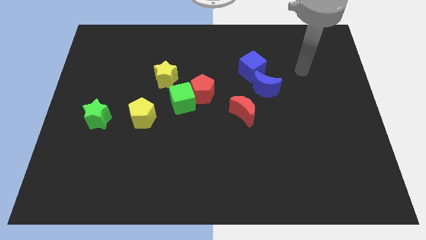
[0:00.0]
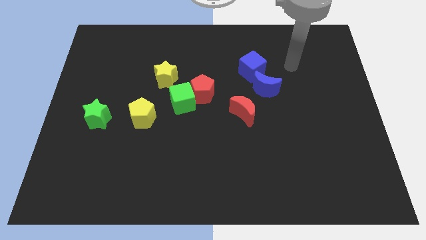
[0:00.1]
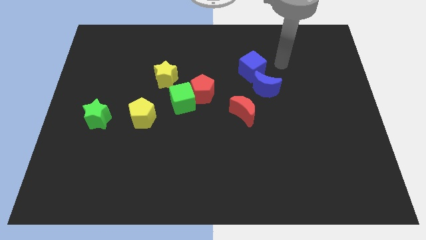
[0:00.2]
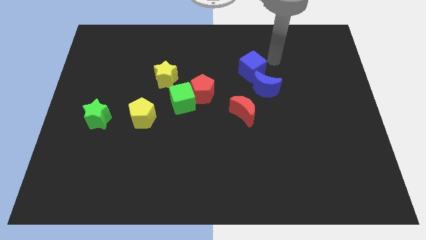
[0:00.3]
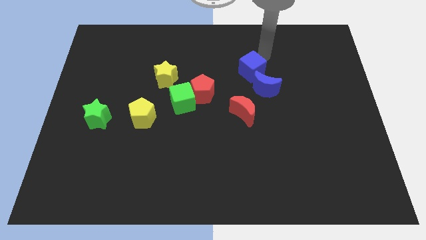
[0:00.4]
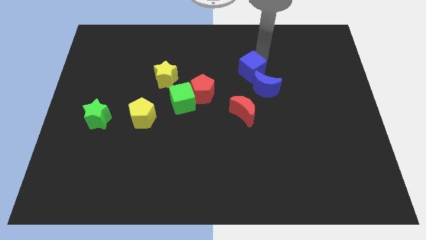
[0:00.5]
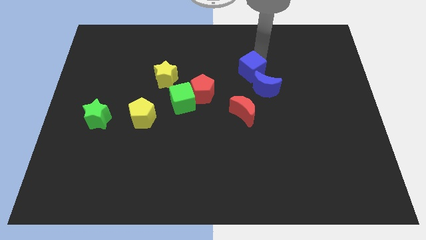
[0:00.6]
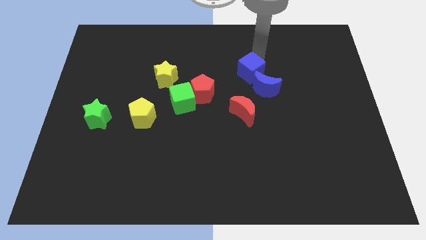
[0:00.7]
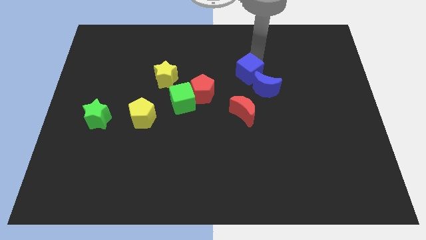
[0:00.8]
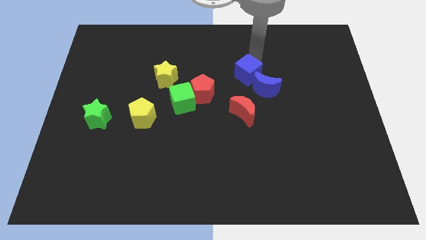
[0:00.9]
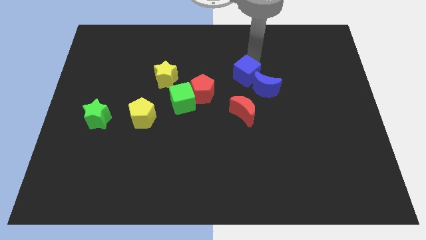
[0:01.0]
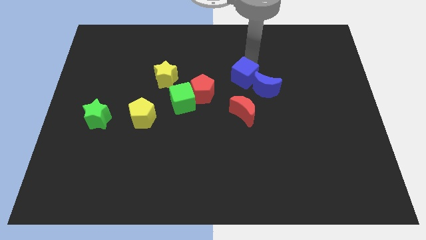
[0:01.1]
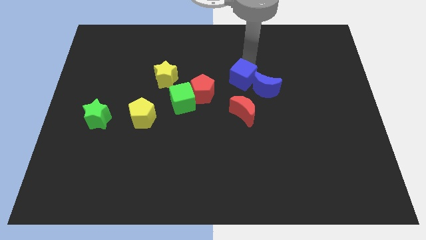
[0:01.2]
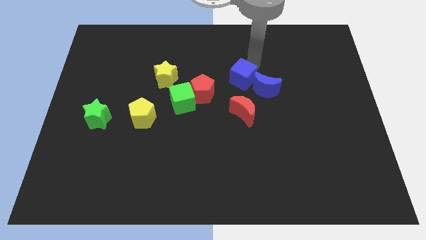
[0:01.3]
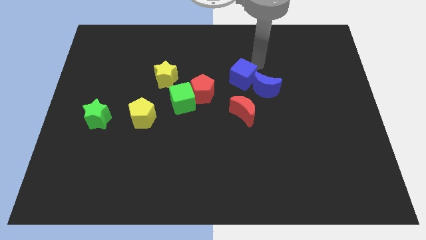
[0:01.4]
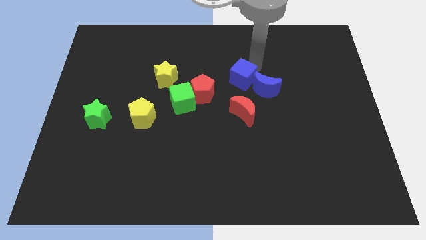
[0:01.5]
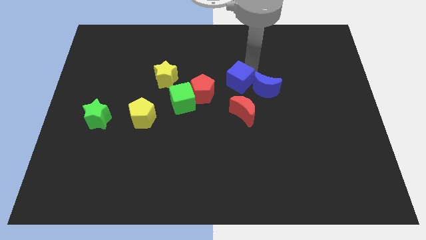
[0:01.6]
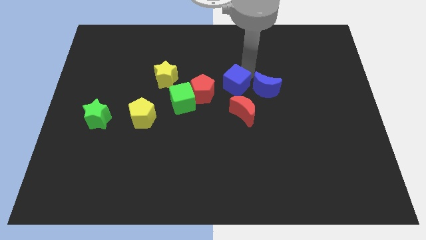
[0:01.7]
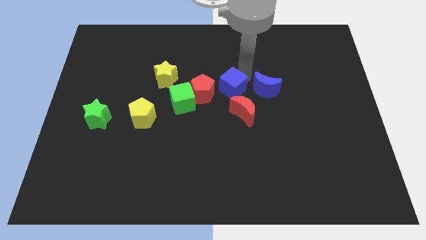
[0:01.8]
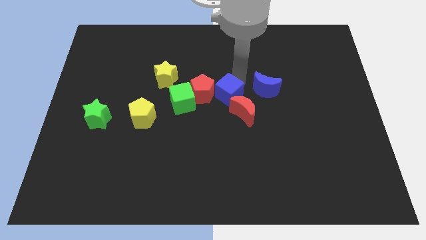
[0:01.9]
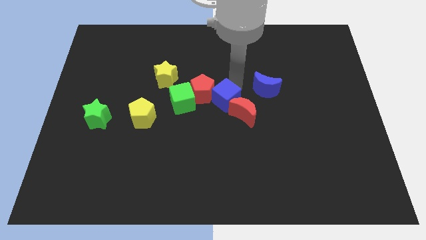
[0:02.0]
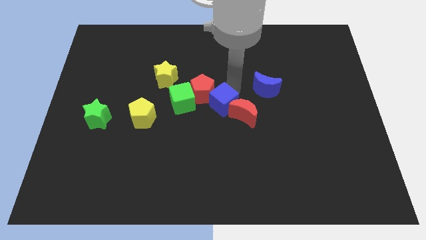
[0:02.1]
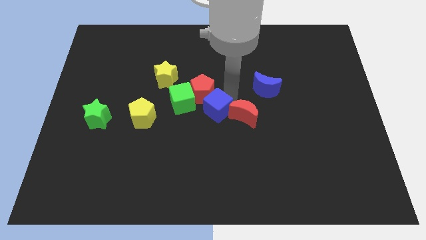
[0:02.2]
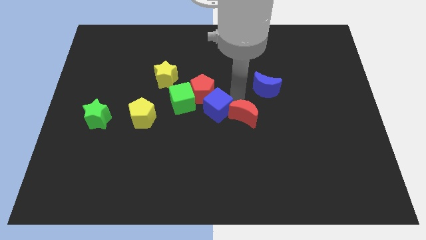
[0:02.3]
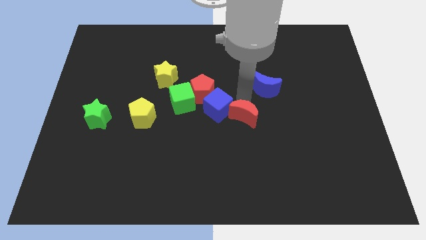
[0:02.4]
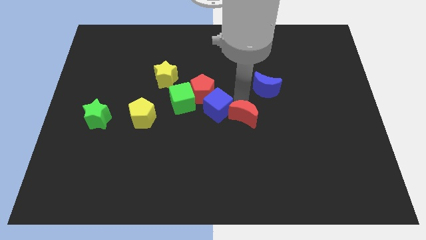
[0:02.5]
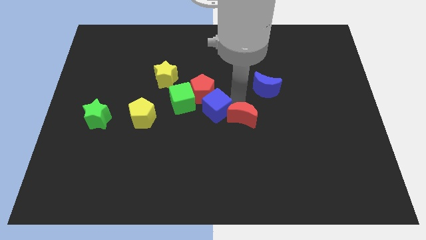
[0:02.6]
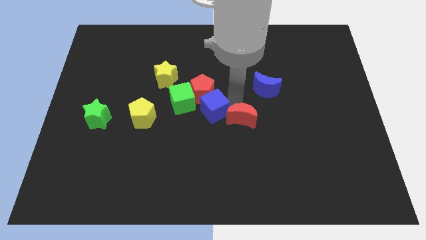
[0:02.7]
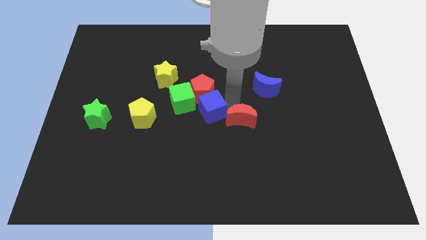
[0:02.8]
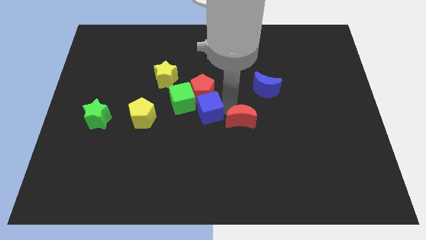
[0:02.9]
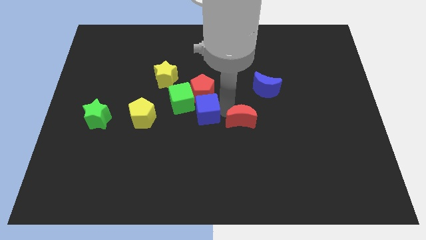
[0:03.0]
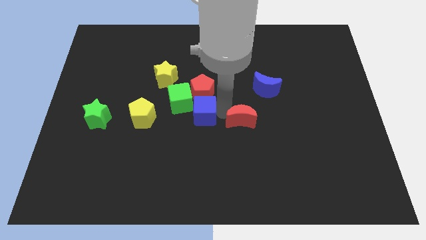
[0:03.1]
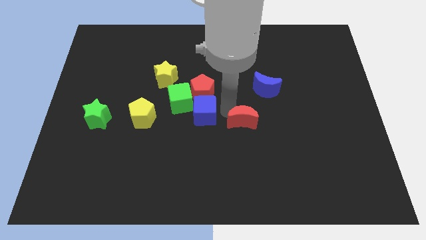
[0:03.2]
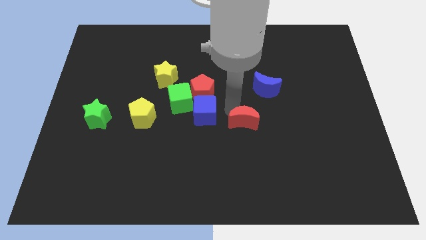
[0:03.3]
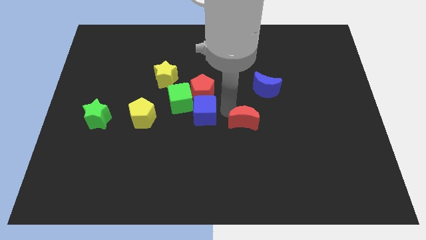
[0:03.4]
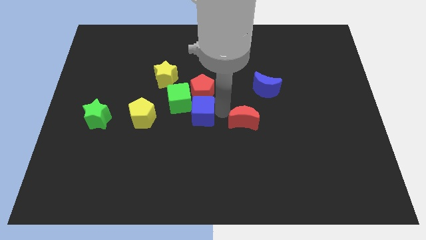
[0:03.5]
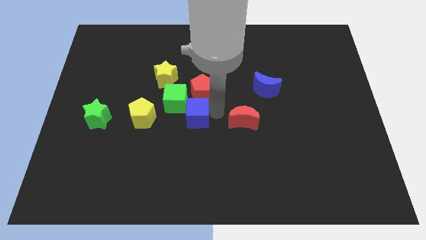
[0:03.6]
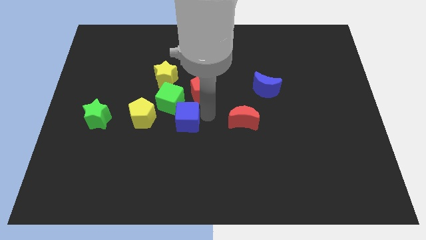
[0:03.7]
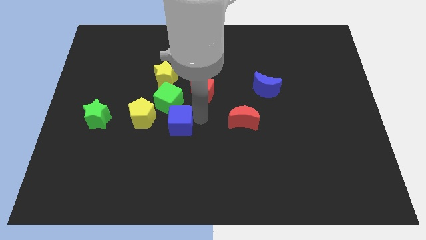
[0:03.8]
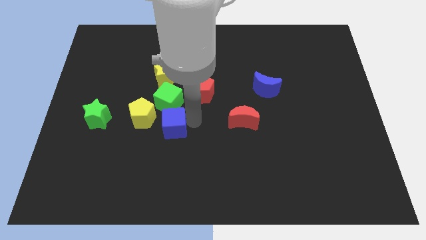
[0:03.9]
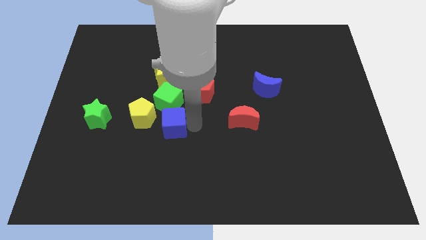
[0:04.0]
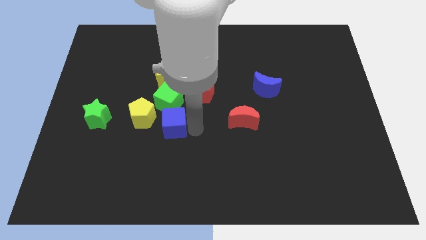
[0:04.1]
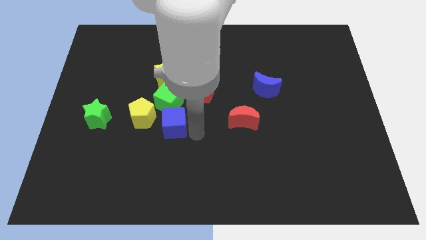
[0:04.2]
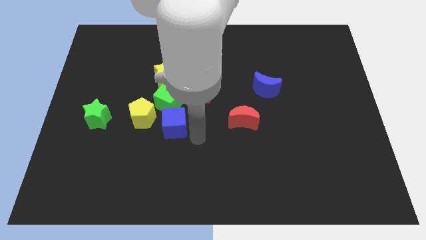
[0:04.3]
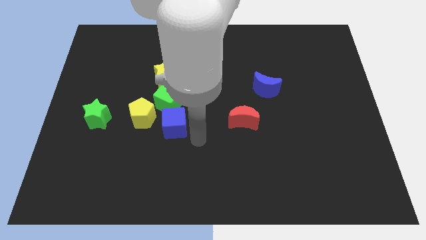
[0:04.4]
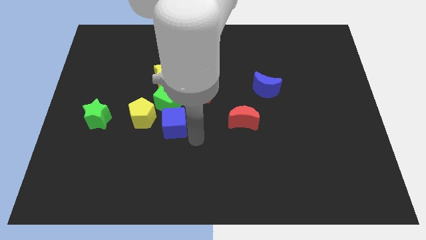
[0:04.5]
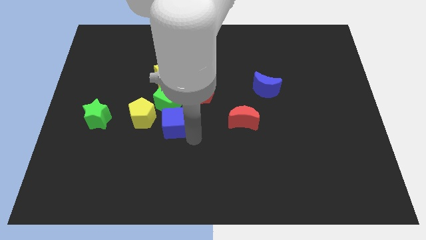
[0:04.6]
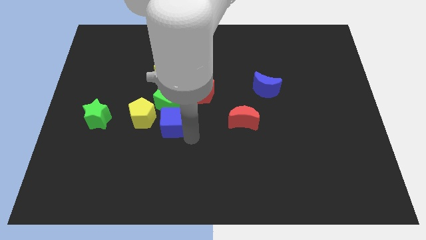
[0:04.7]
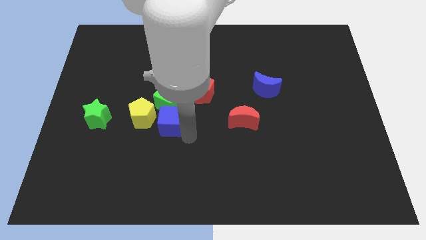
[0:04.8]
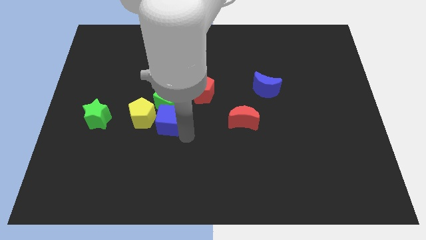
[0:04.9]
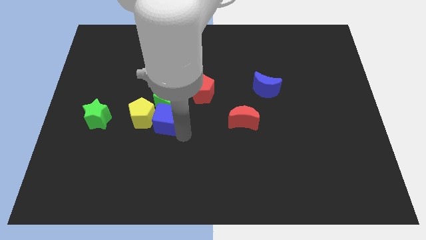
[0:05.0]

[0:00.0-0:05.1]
slide the blue cube towards the yellow pentagon

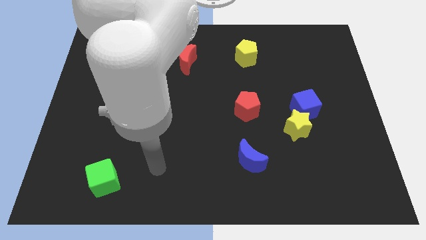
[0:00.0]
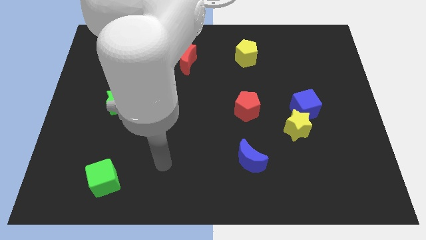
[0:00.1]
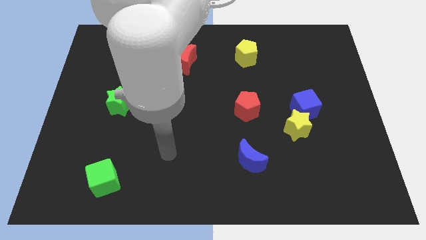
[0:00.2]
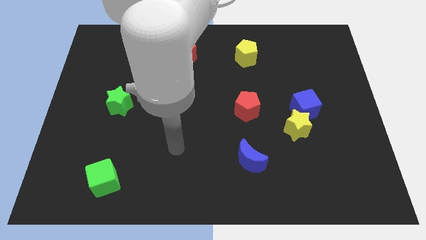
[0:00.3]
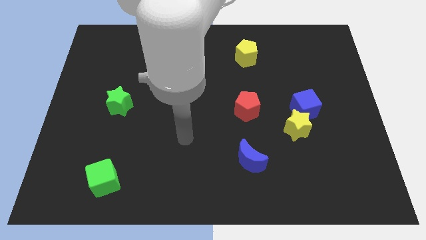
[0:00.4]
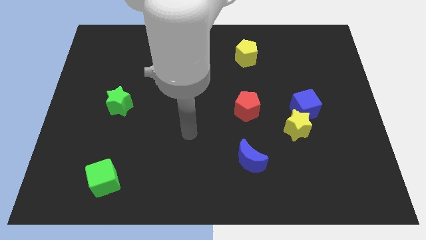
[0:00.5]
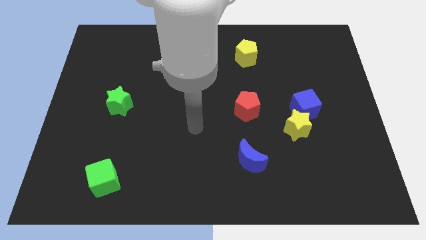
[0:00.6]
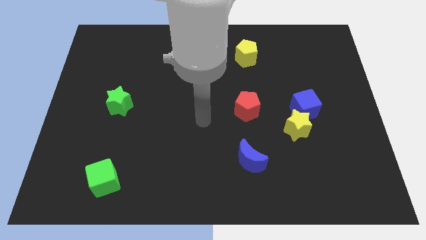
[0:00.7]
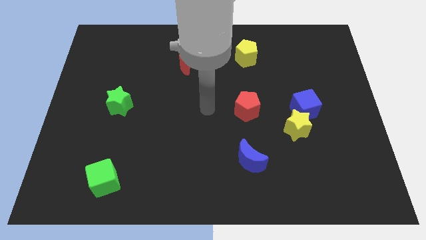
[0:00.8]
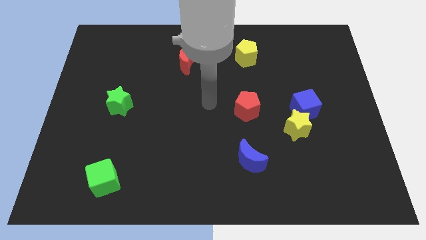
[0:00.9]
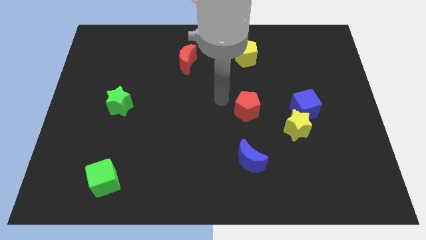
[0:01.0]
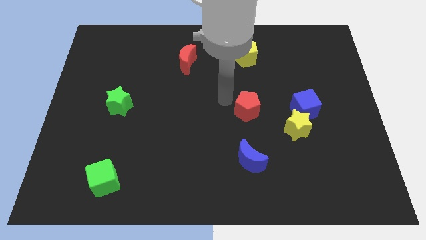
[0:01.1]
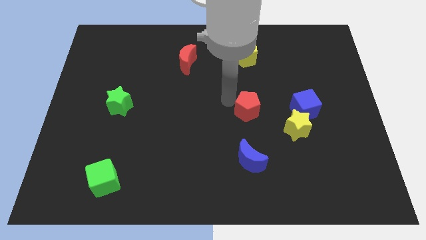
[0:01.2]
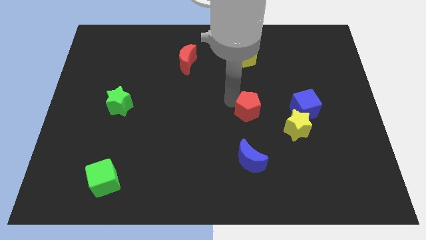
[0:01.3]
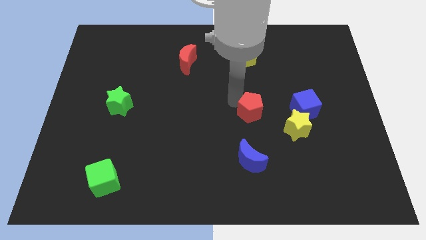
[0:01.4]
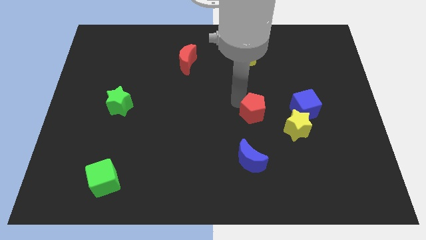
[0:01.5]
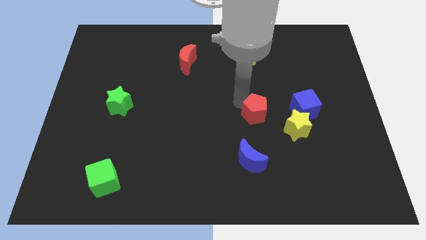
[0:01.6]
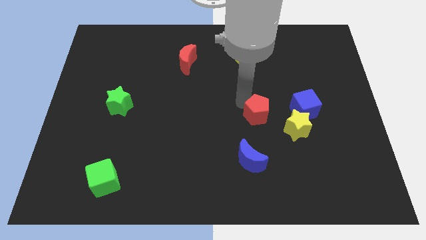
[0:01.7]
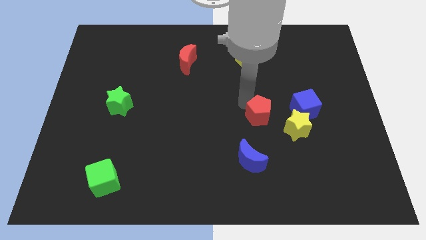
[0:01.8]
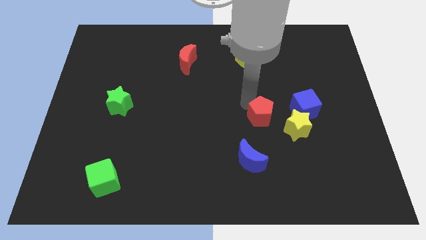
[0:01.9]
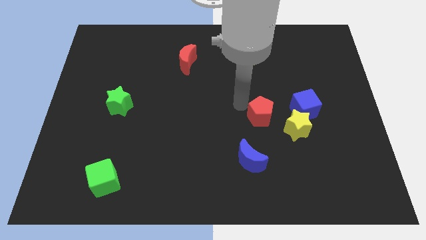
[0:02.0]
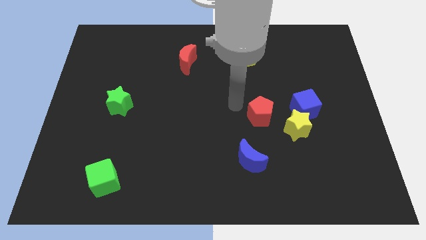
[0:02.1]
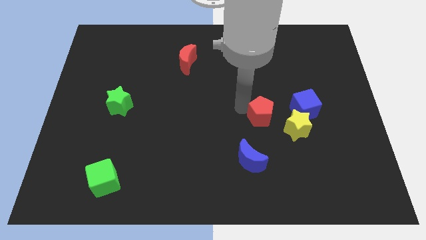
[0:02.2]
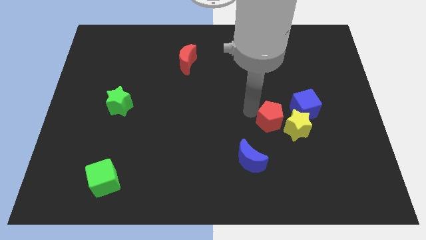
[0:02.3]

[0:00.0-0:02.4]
put the red pentagon towards the yellow star

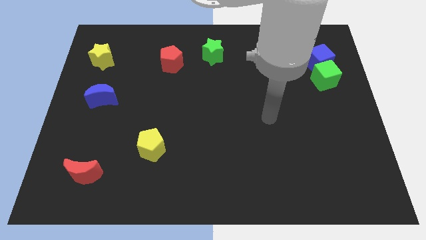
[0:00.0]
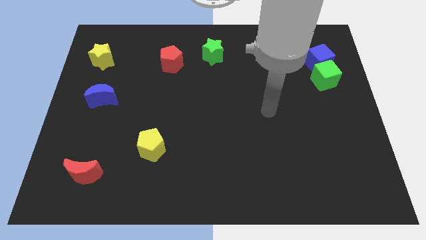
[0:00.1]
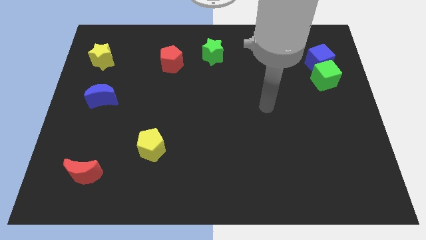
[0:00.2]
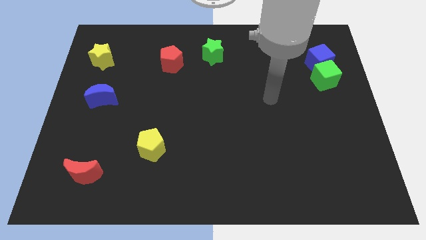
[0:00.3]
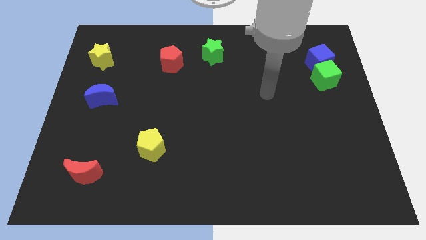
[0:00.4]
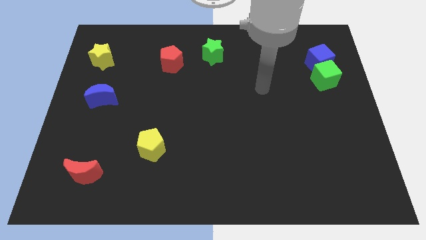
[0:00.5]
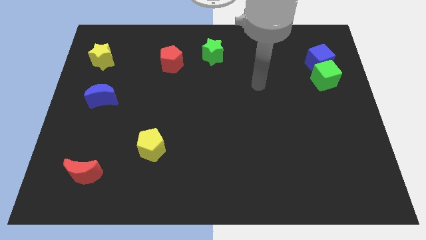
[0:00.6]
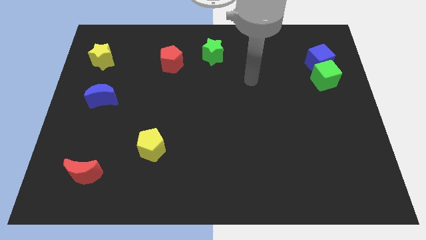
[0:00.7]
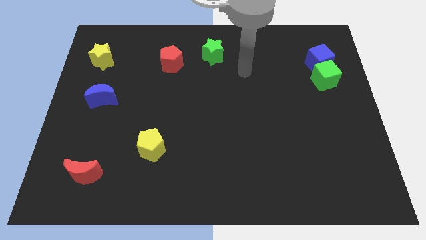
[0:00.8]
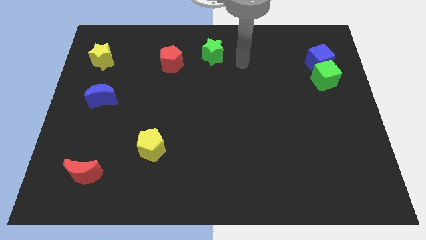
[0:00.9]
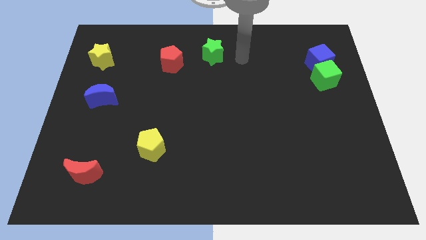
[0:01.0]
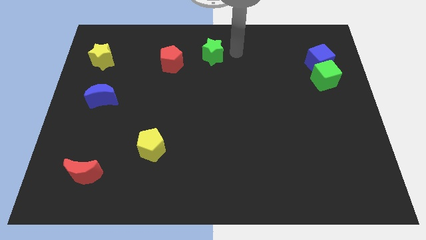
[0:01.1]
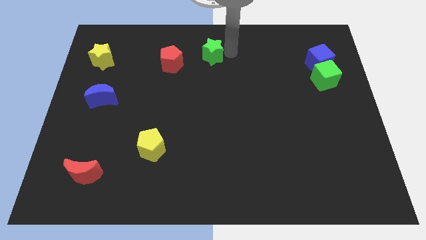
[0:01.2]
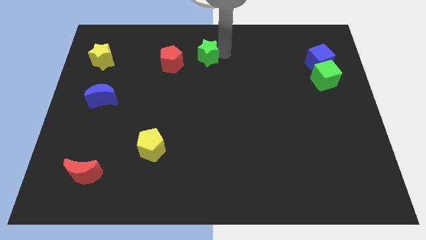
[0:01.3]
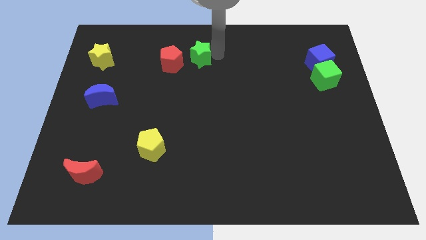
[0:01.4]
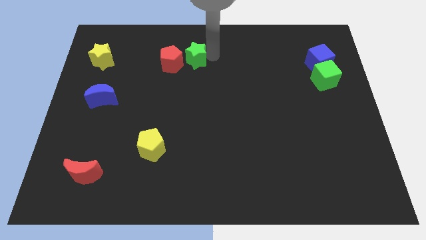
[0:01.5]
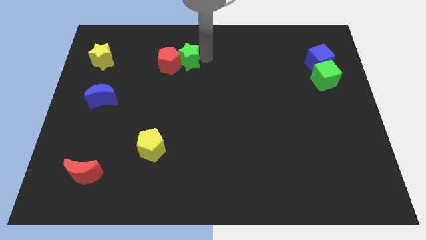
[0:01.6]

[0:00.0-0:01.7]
push the green star close to the red pentagon
